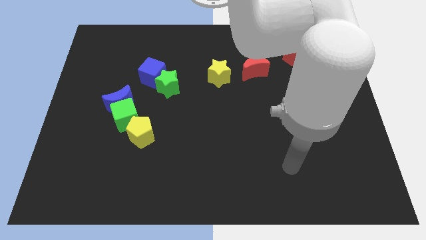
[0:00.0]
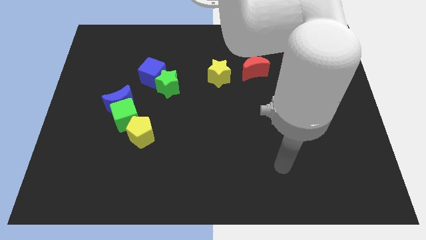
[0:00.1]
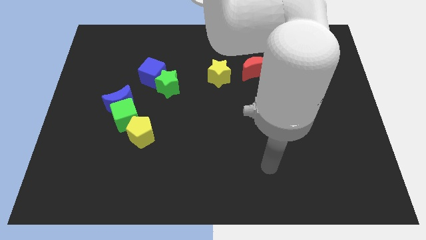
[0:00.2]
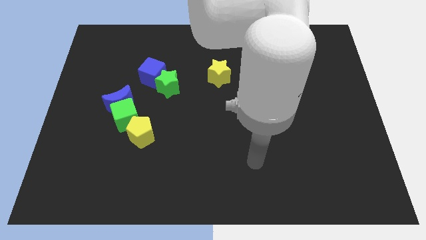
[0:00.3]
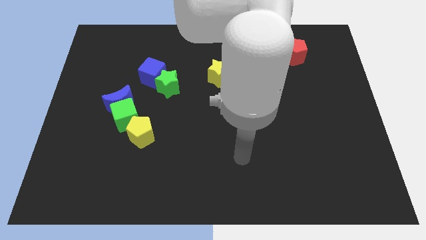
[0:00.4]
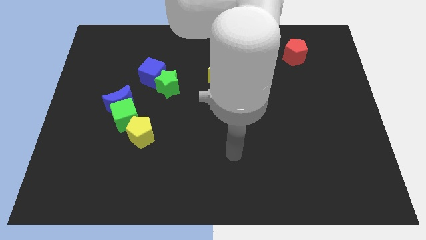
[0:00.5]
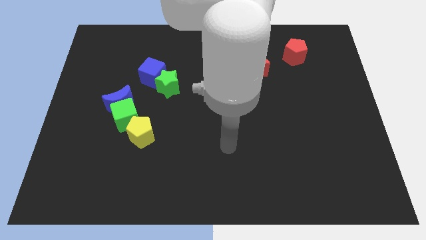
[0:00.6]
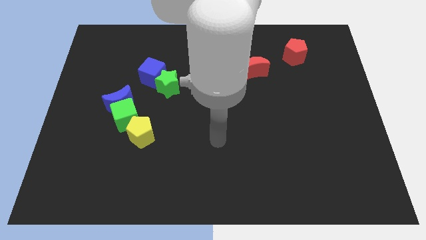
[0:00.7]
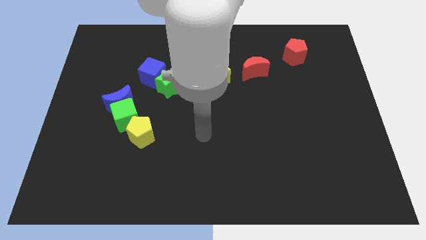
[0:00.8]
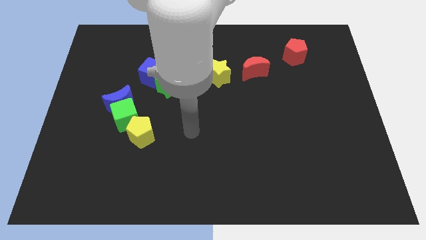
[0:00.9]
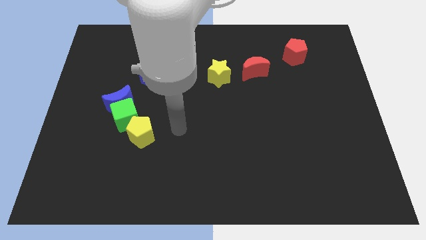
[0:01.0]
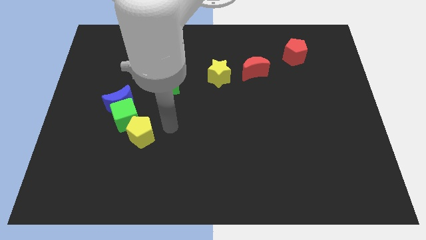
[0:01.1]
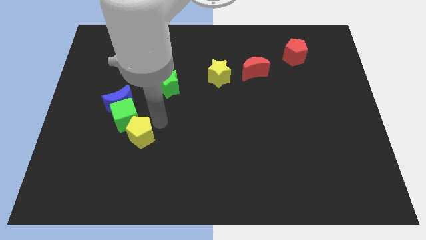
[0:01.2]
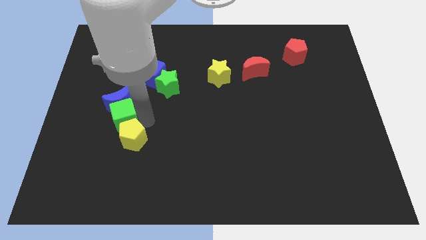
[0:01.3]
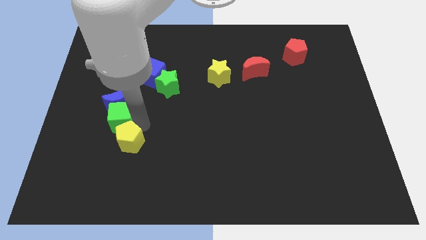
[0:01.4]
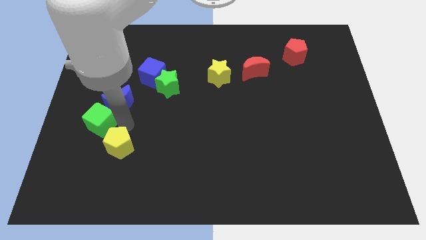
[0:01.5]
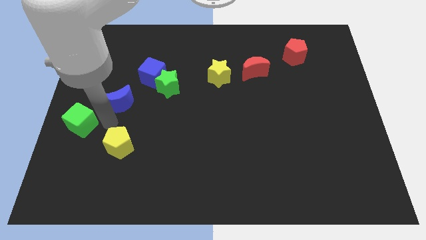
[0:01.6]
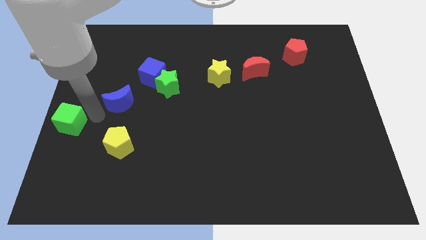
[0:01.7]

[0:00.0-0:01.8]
pull the blue moon apart from the green cube

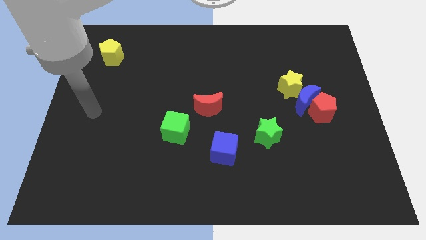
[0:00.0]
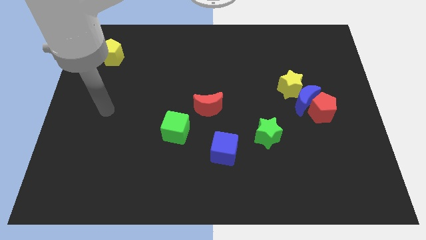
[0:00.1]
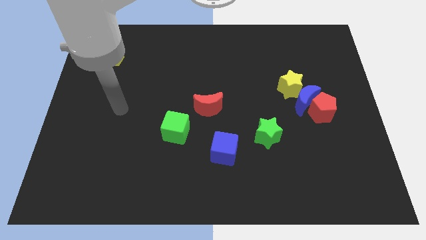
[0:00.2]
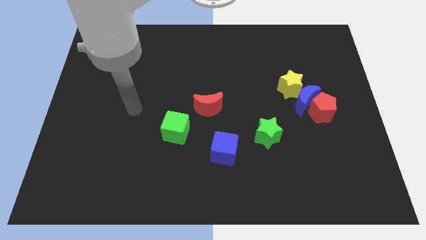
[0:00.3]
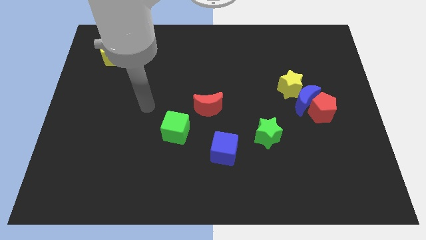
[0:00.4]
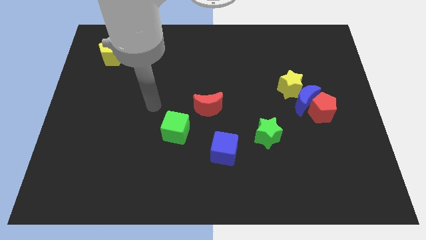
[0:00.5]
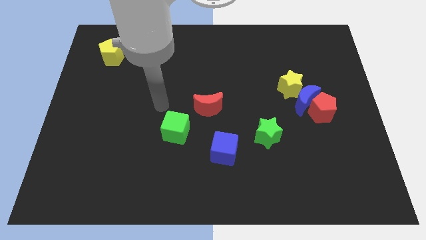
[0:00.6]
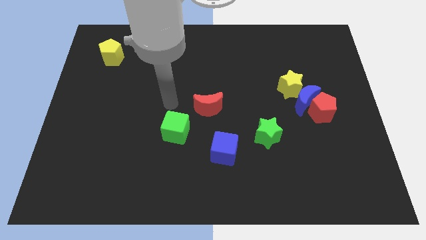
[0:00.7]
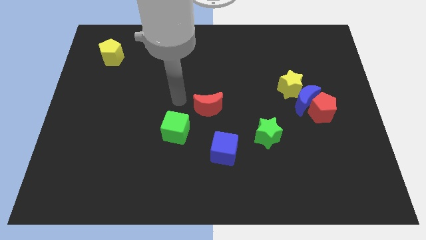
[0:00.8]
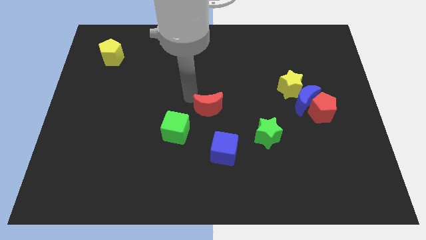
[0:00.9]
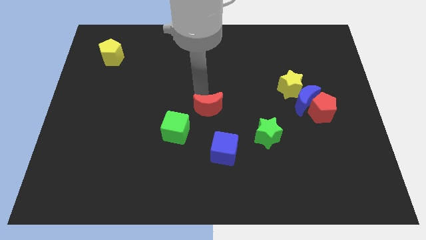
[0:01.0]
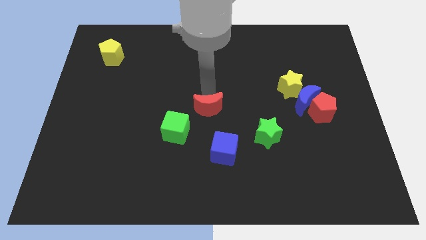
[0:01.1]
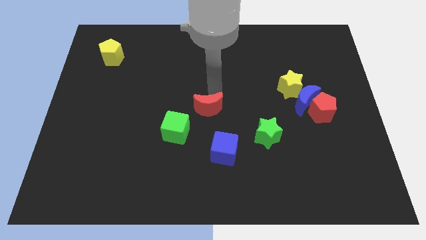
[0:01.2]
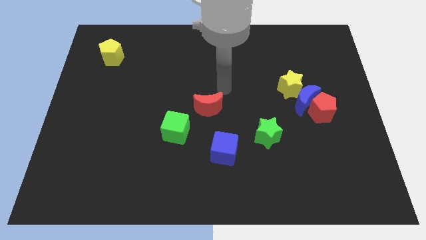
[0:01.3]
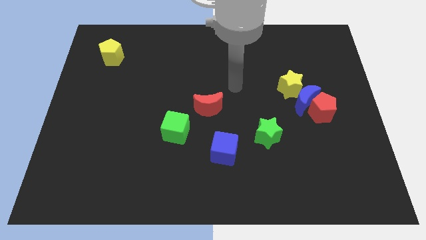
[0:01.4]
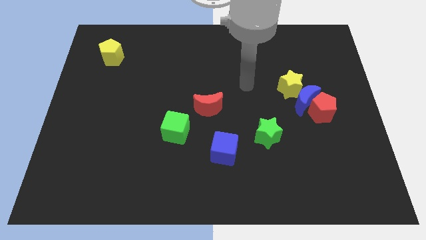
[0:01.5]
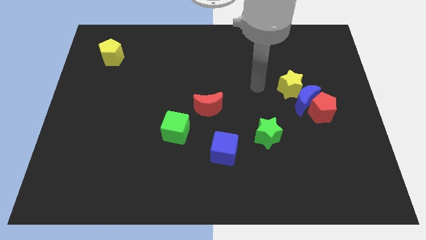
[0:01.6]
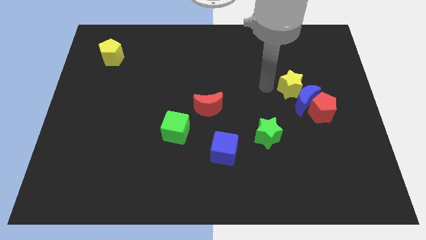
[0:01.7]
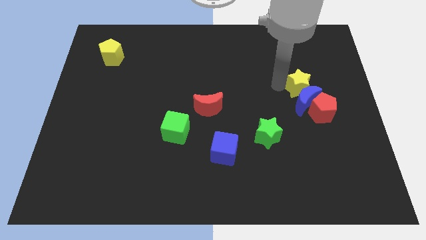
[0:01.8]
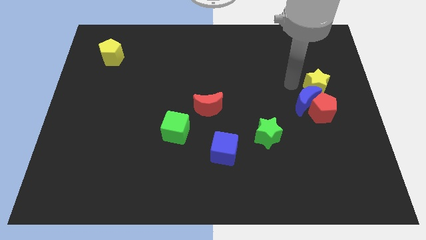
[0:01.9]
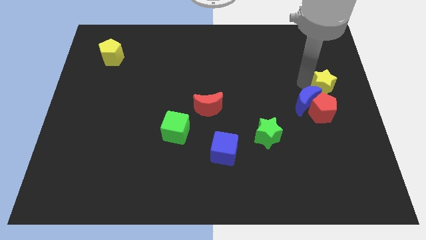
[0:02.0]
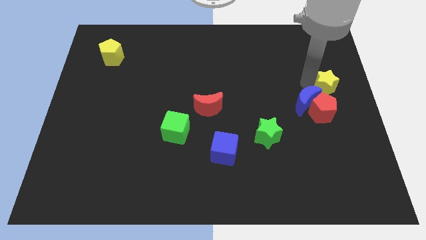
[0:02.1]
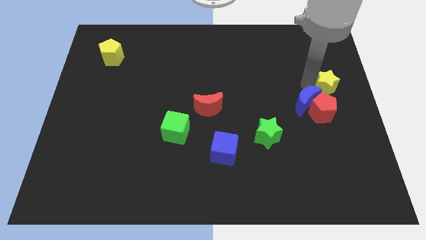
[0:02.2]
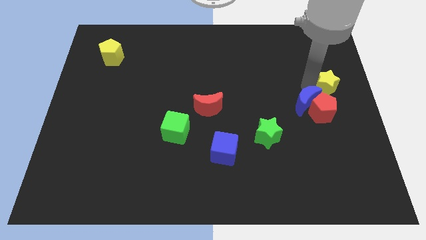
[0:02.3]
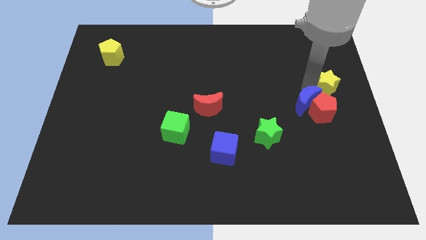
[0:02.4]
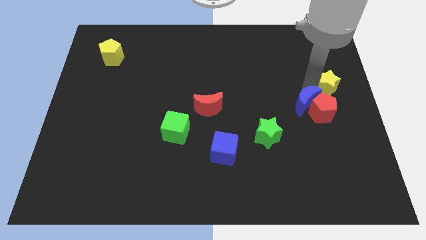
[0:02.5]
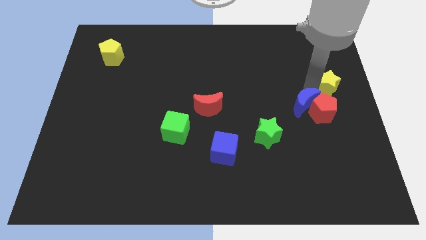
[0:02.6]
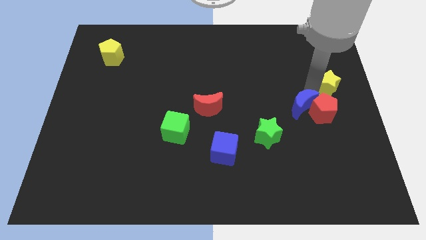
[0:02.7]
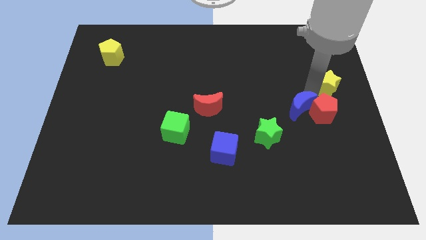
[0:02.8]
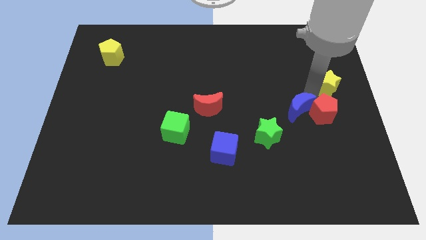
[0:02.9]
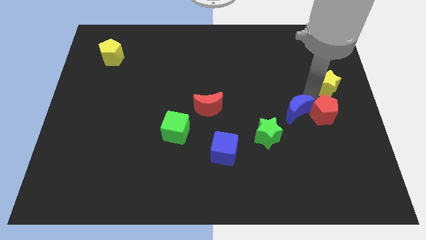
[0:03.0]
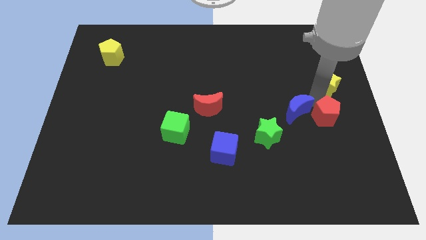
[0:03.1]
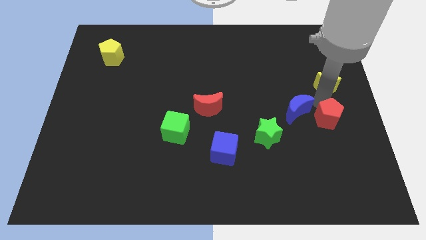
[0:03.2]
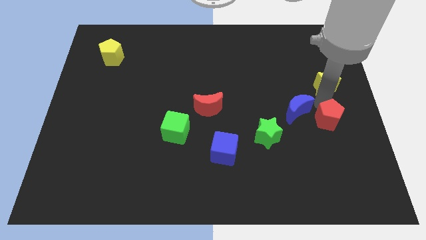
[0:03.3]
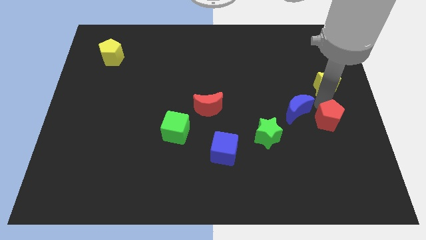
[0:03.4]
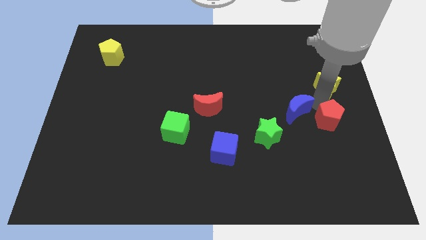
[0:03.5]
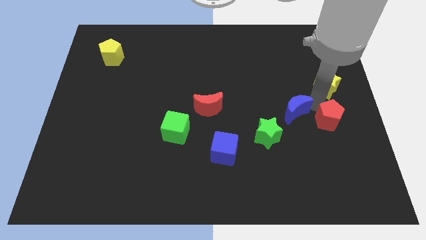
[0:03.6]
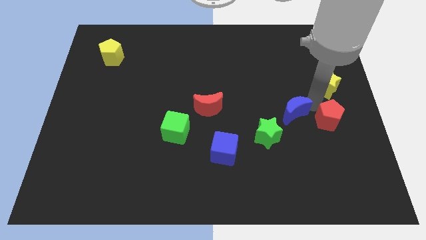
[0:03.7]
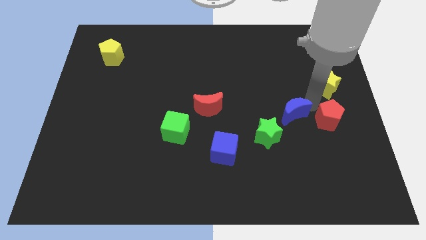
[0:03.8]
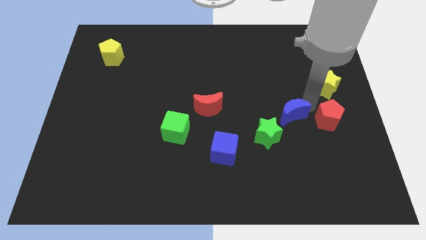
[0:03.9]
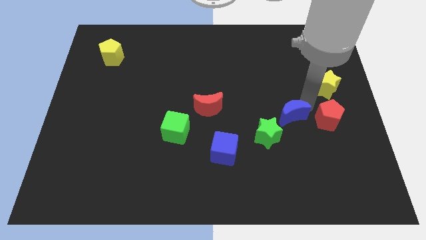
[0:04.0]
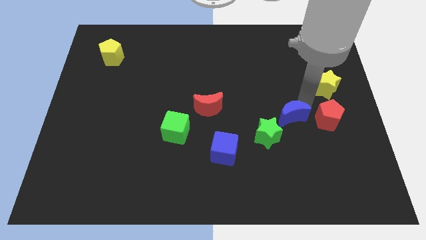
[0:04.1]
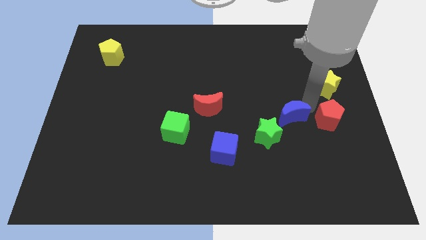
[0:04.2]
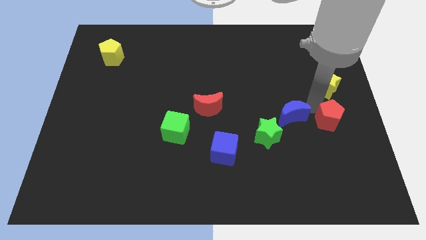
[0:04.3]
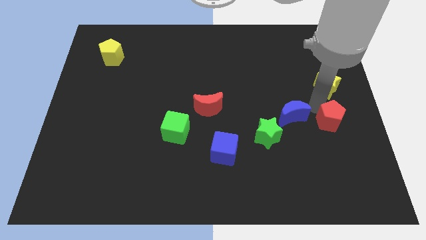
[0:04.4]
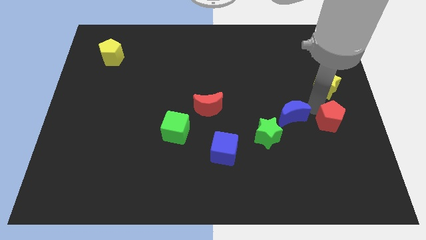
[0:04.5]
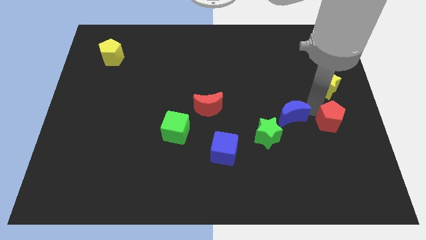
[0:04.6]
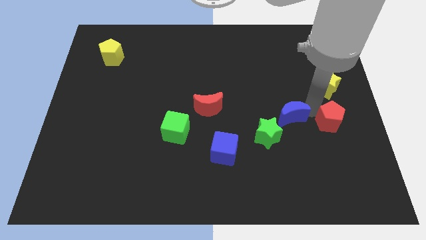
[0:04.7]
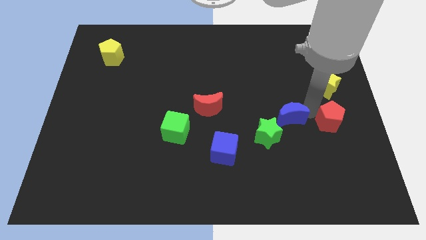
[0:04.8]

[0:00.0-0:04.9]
separate the blue moon from the red pentagon and yellow star

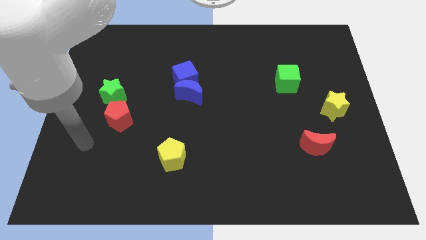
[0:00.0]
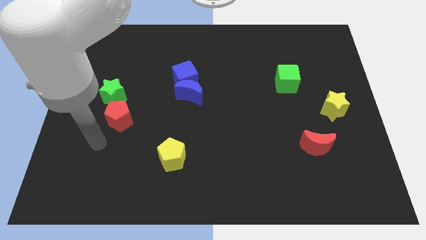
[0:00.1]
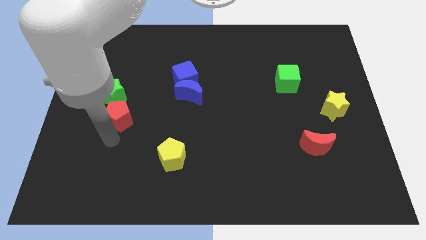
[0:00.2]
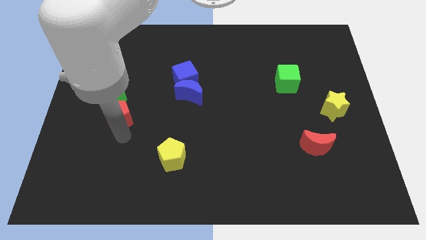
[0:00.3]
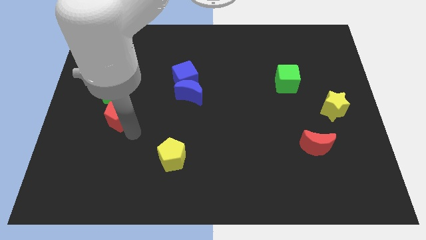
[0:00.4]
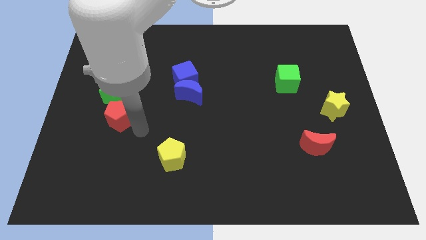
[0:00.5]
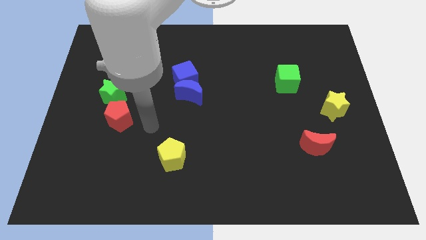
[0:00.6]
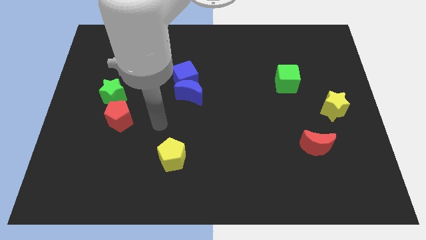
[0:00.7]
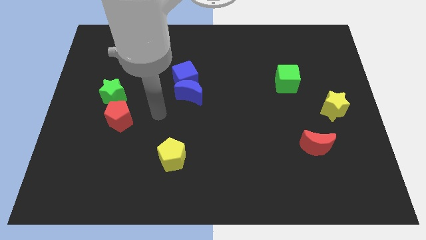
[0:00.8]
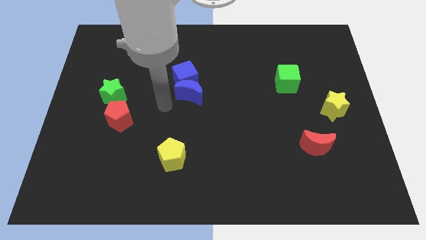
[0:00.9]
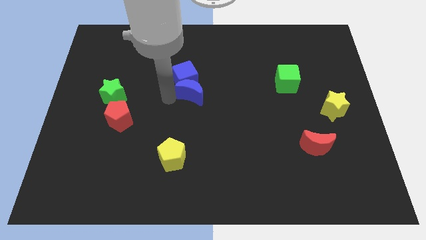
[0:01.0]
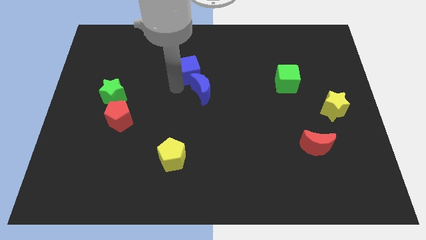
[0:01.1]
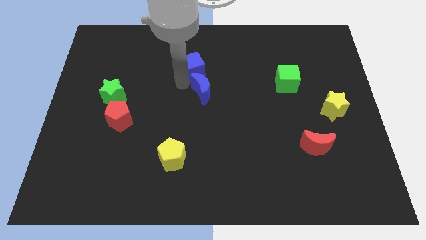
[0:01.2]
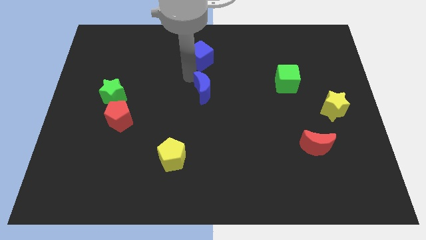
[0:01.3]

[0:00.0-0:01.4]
pull the blue moon apart from the blue cube

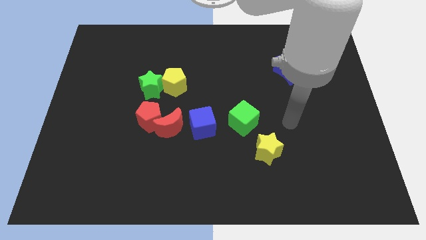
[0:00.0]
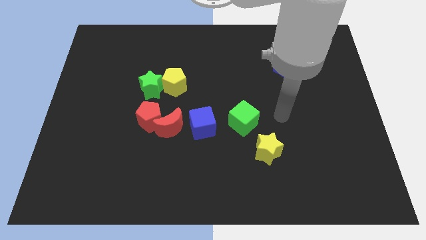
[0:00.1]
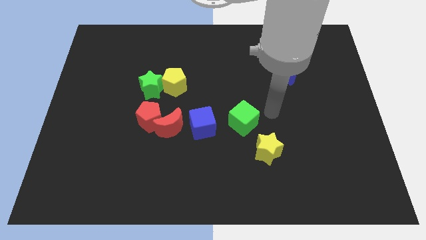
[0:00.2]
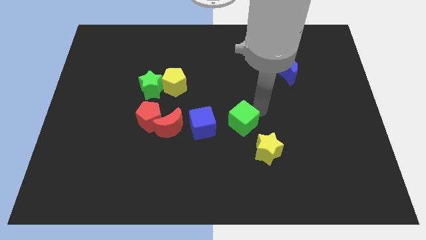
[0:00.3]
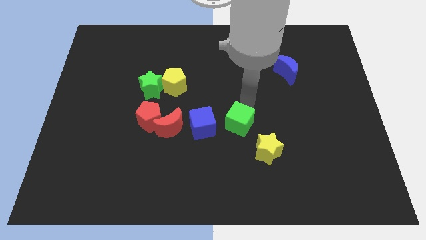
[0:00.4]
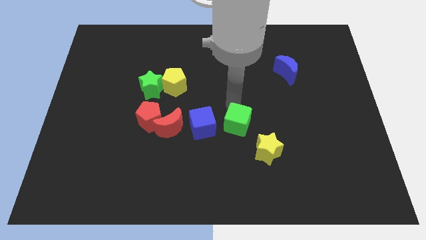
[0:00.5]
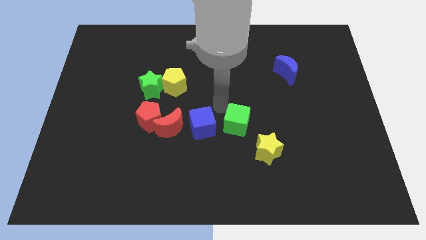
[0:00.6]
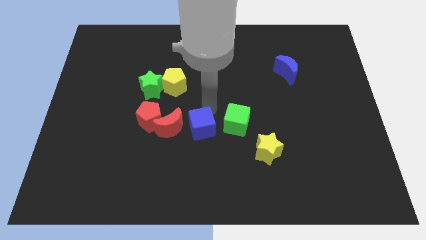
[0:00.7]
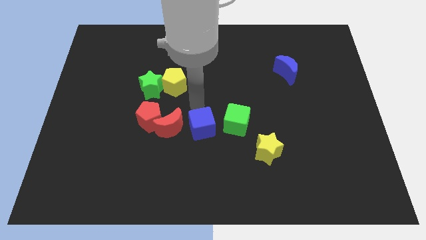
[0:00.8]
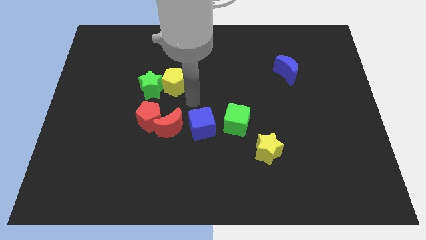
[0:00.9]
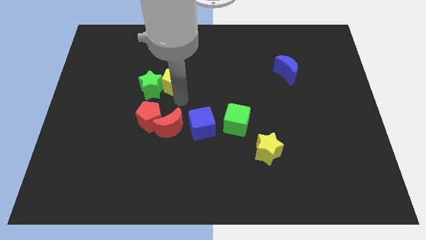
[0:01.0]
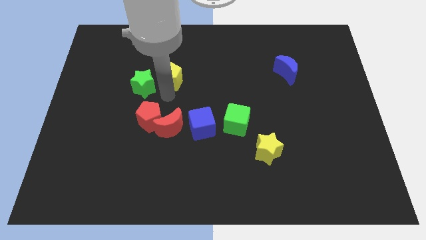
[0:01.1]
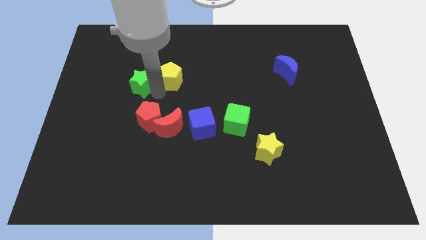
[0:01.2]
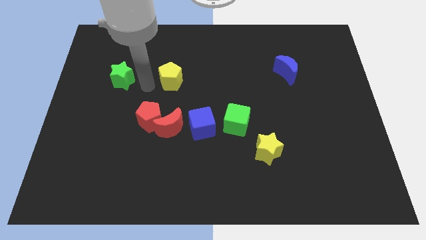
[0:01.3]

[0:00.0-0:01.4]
separate the yellow pentagon from the green star
